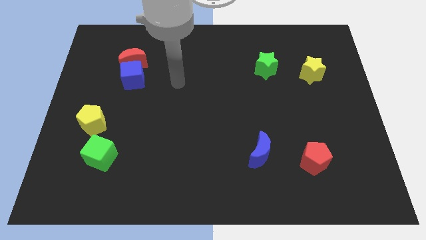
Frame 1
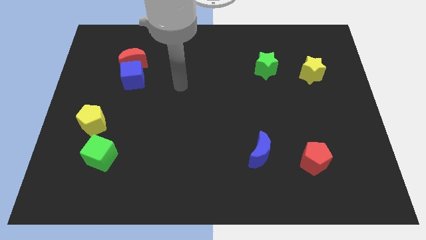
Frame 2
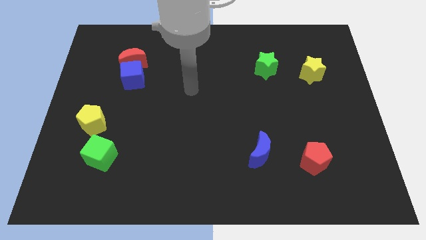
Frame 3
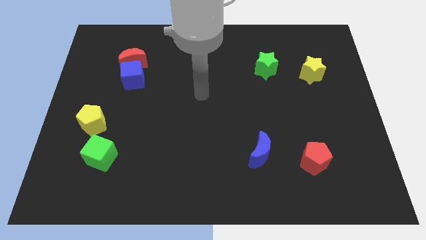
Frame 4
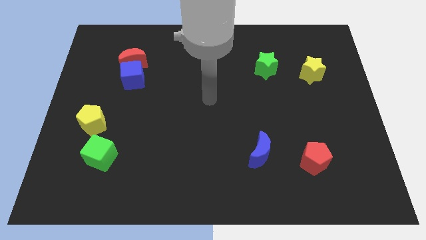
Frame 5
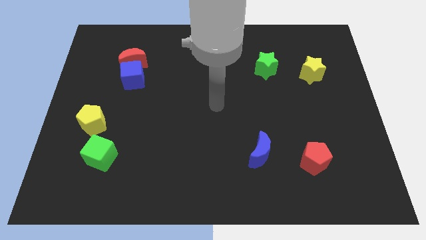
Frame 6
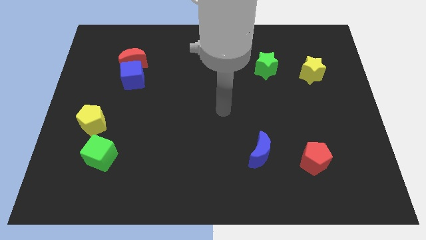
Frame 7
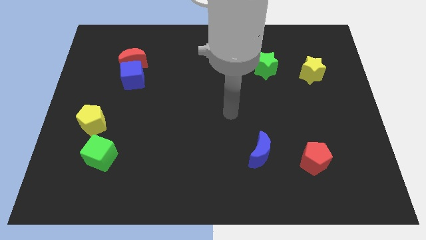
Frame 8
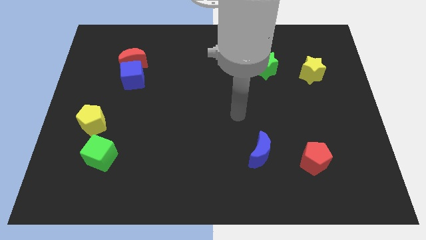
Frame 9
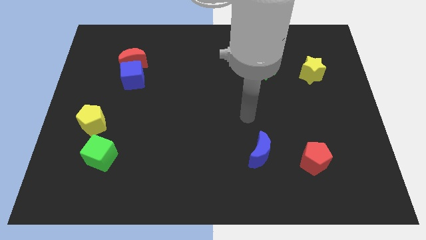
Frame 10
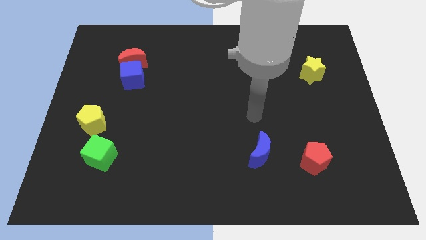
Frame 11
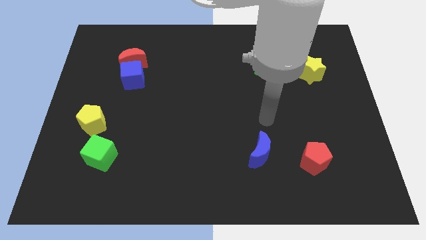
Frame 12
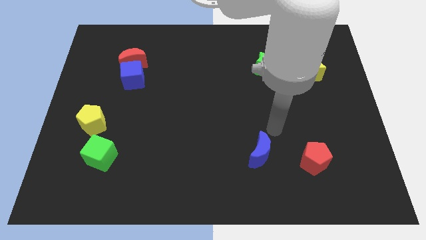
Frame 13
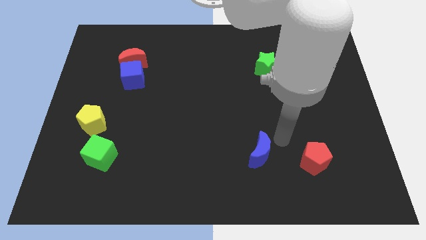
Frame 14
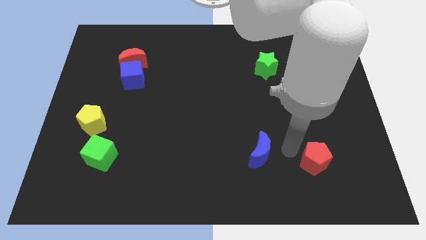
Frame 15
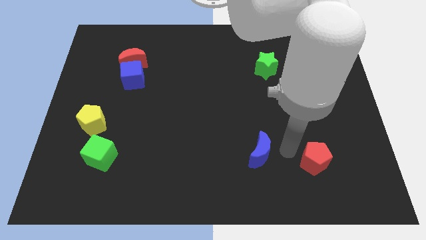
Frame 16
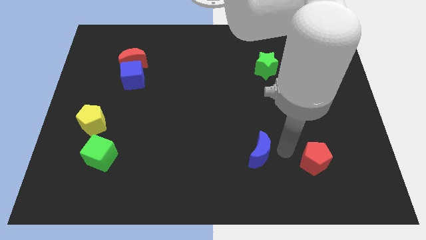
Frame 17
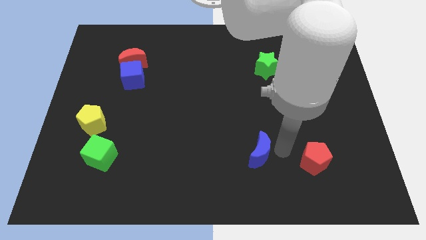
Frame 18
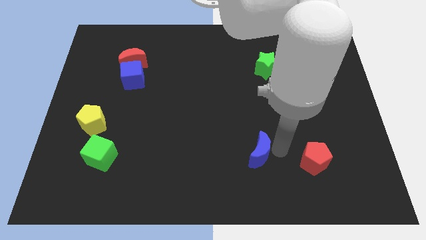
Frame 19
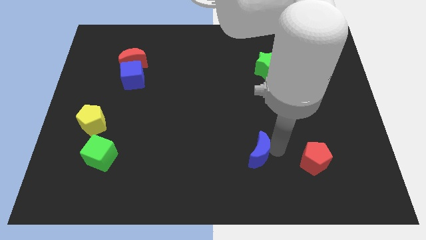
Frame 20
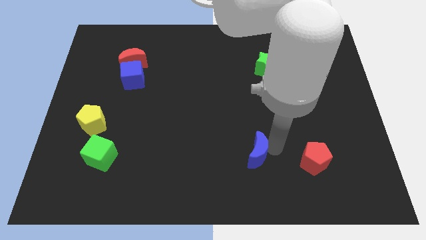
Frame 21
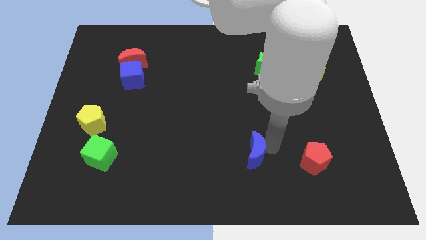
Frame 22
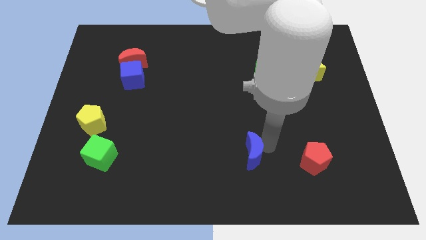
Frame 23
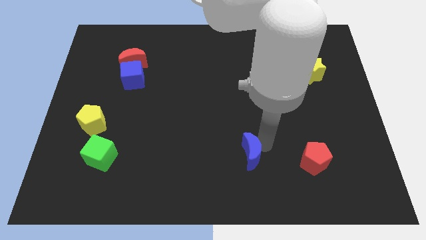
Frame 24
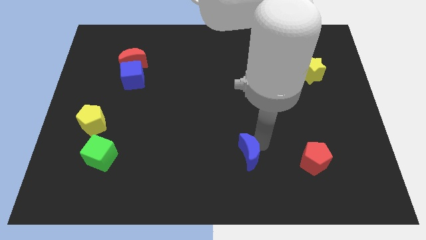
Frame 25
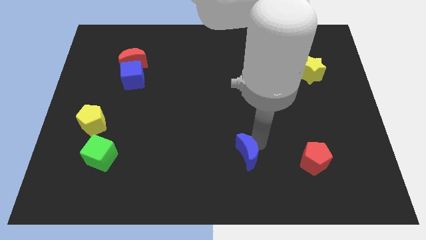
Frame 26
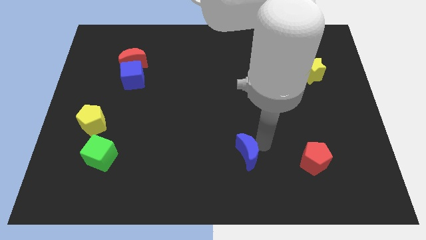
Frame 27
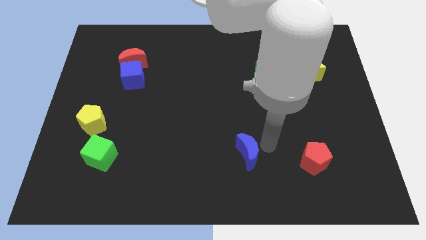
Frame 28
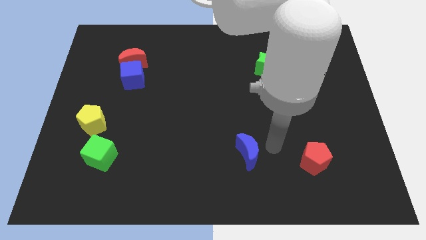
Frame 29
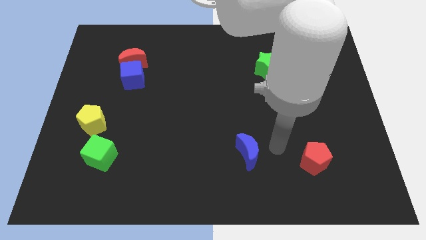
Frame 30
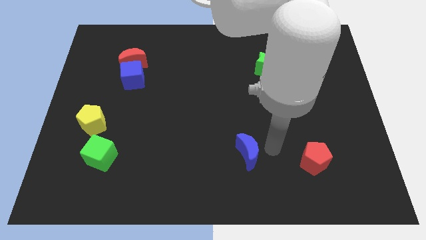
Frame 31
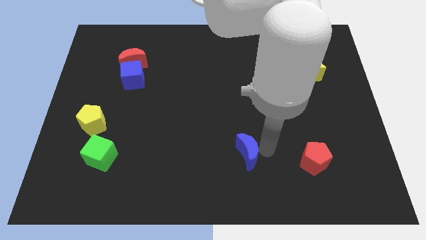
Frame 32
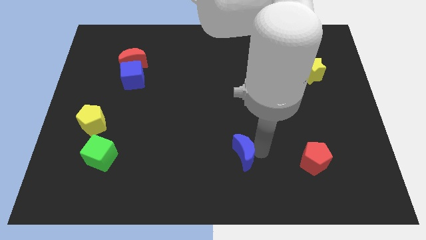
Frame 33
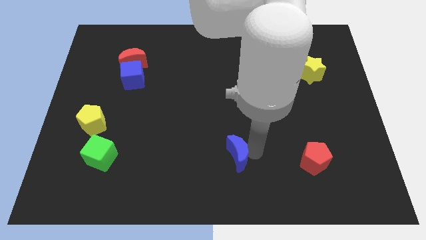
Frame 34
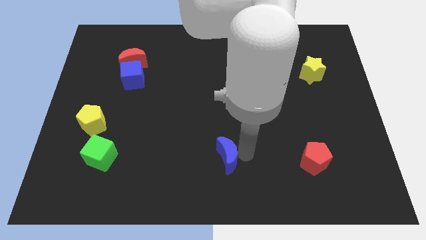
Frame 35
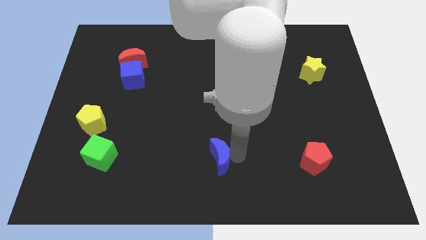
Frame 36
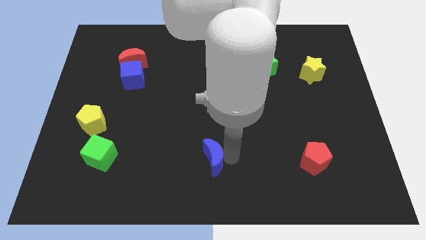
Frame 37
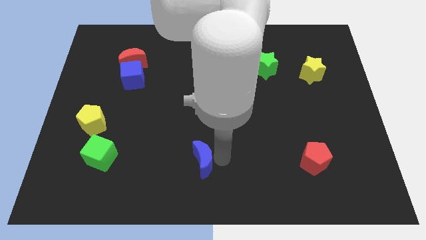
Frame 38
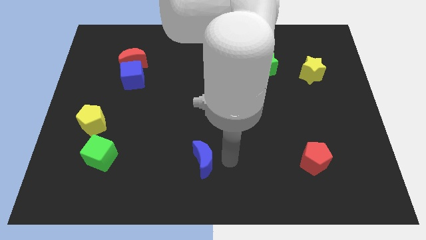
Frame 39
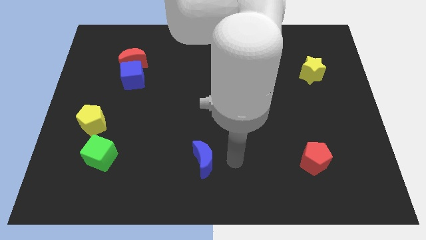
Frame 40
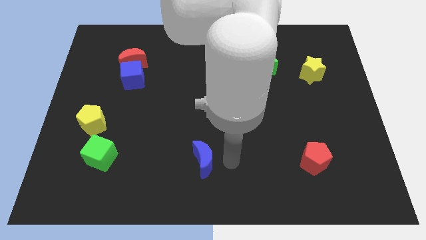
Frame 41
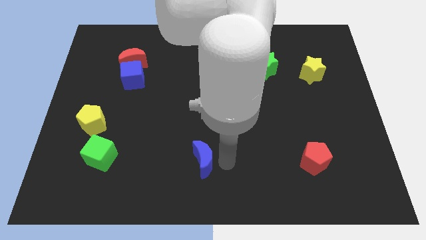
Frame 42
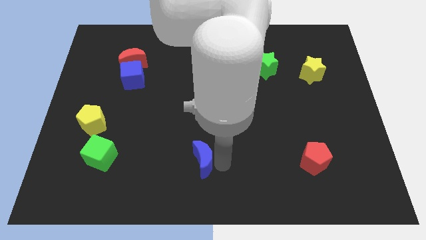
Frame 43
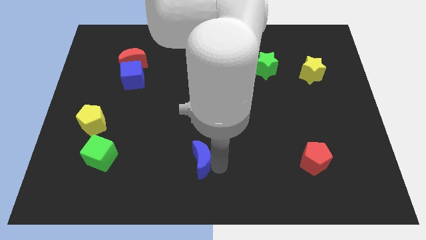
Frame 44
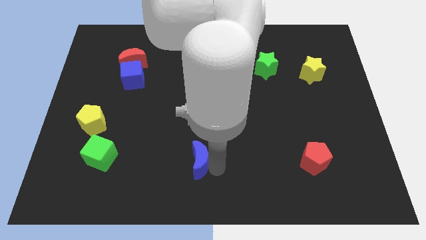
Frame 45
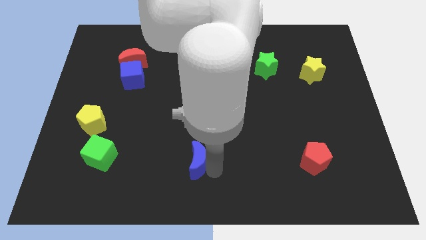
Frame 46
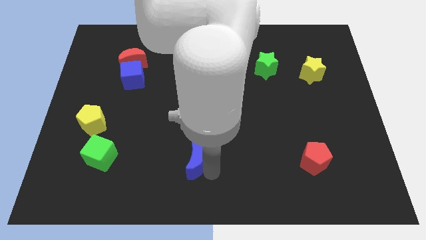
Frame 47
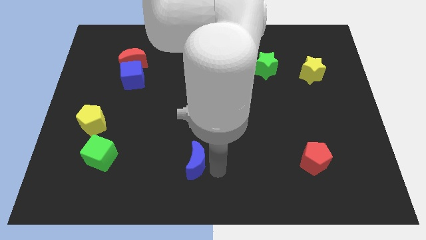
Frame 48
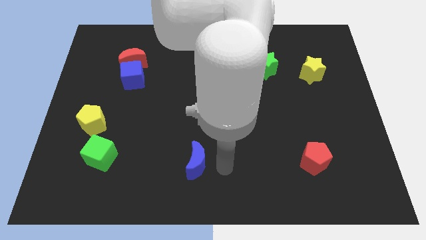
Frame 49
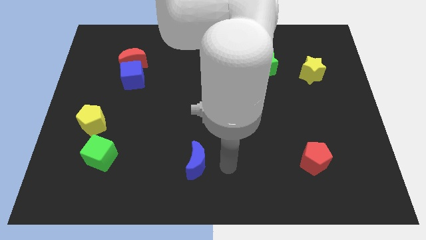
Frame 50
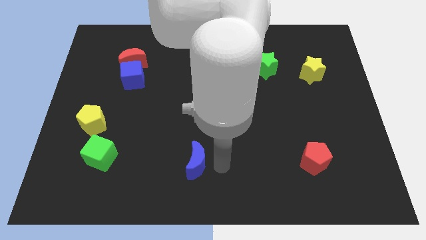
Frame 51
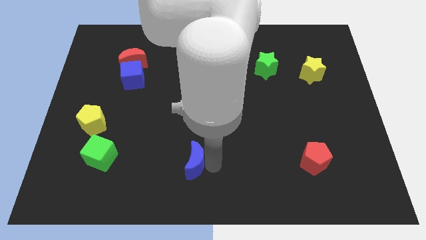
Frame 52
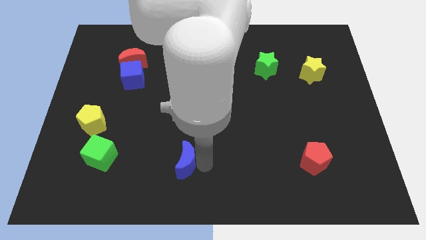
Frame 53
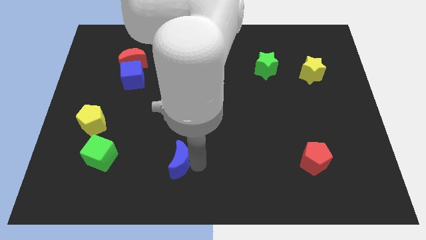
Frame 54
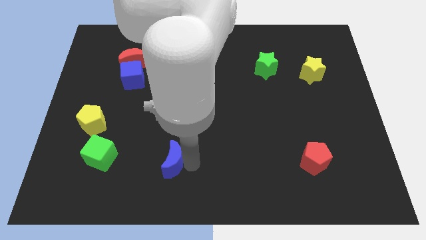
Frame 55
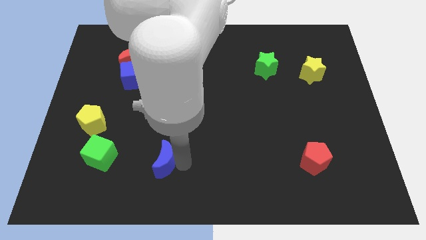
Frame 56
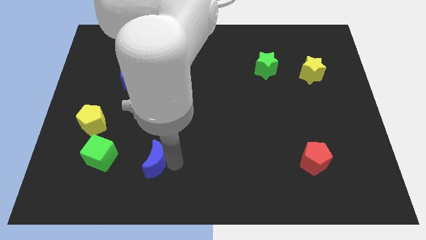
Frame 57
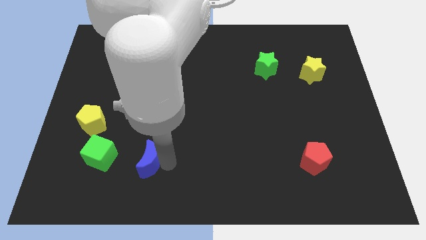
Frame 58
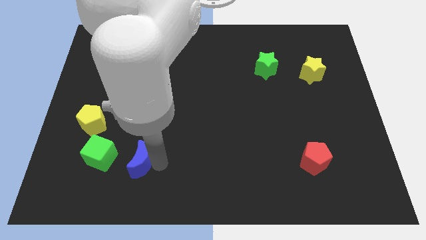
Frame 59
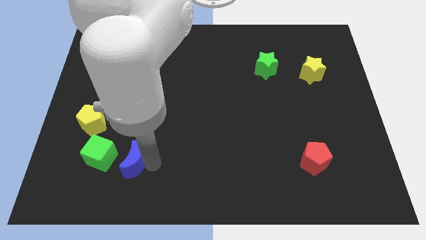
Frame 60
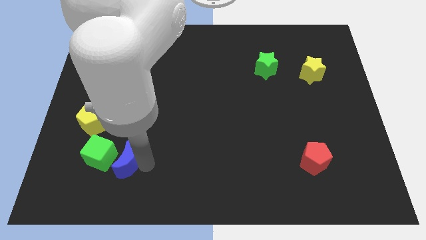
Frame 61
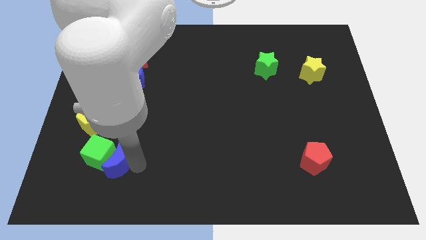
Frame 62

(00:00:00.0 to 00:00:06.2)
move the blue moon next to the green cube
